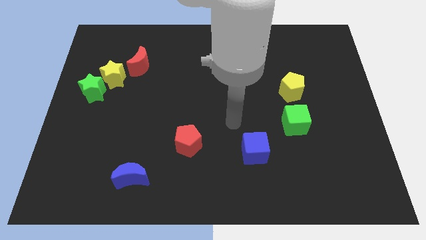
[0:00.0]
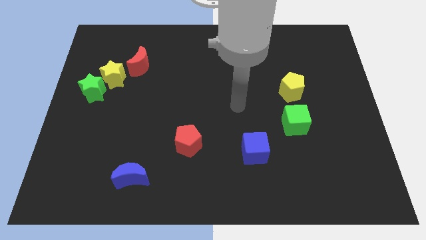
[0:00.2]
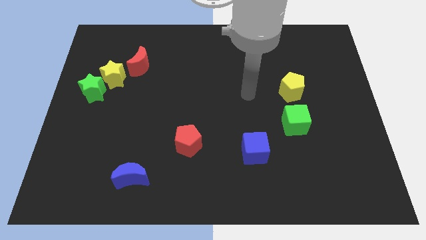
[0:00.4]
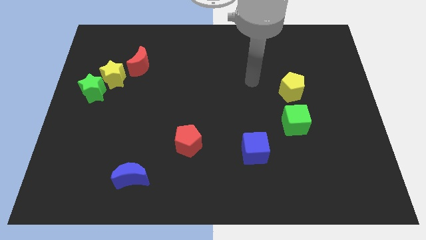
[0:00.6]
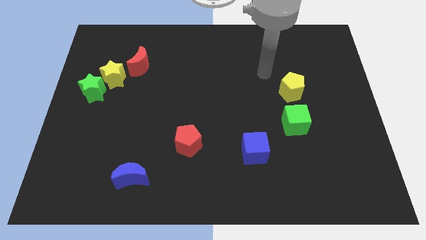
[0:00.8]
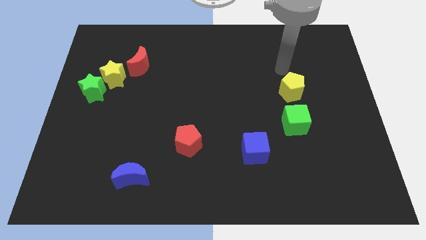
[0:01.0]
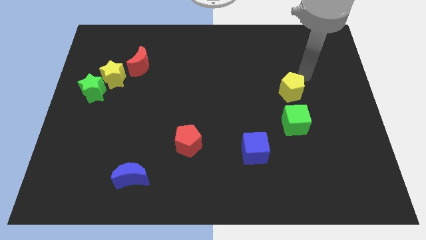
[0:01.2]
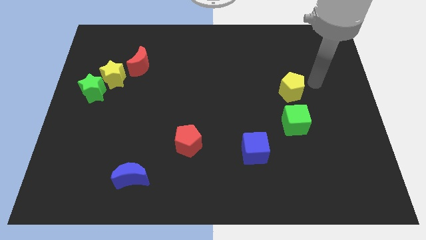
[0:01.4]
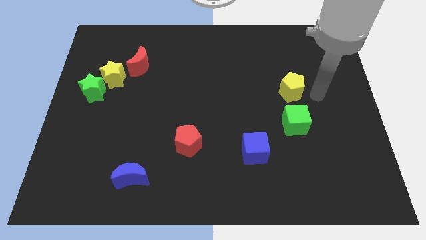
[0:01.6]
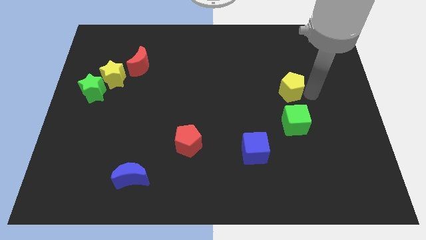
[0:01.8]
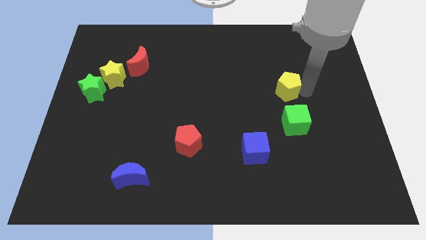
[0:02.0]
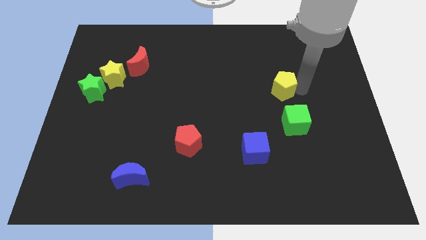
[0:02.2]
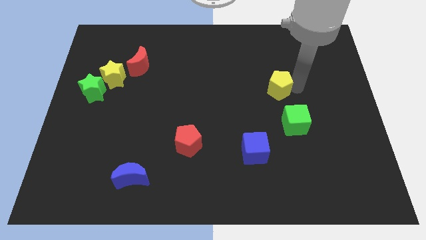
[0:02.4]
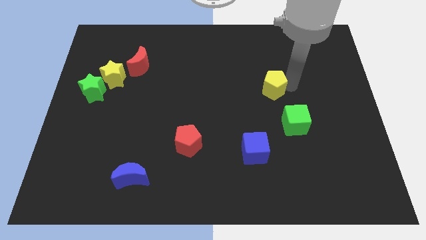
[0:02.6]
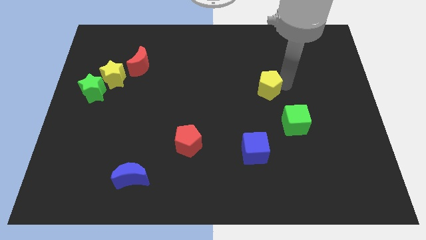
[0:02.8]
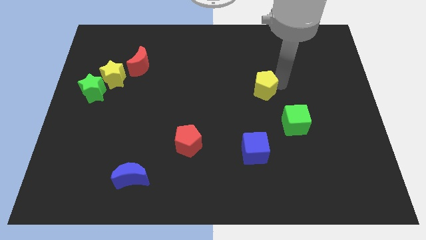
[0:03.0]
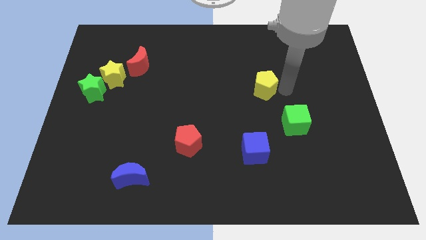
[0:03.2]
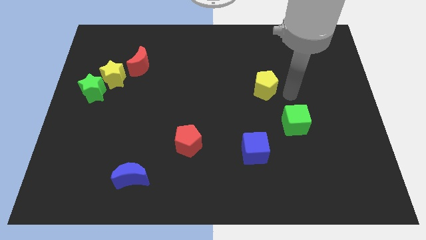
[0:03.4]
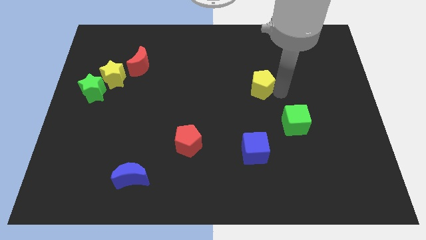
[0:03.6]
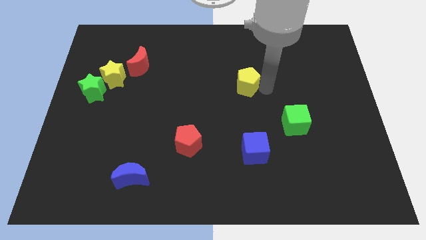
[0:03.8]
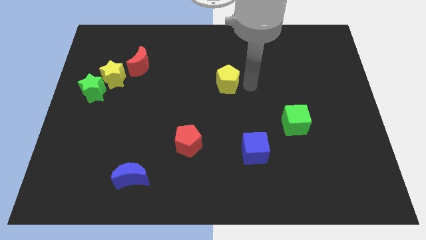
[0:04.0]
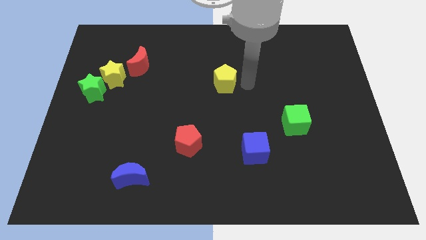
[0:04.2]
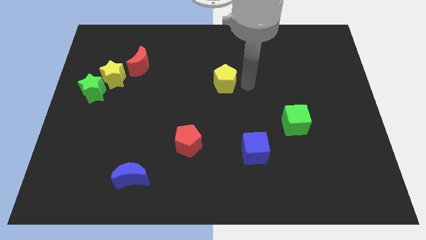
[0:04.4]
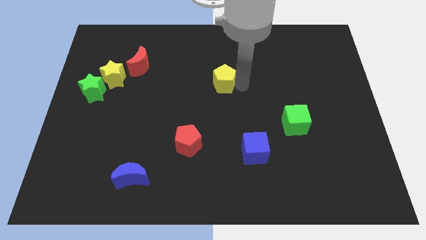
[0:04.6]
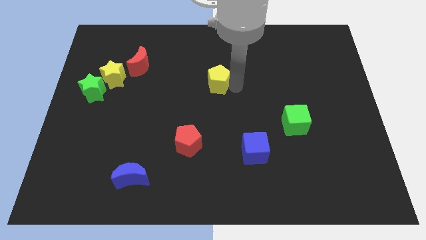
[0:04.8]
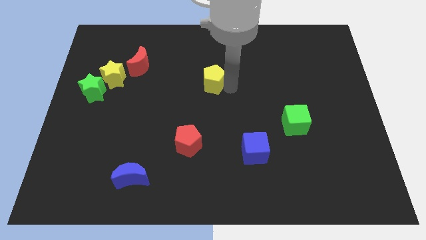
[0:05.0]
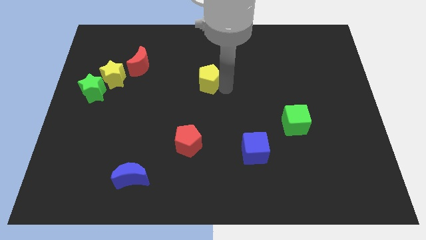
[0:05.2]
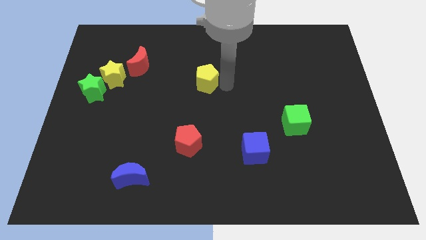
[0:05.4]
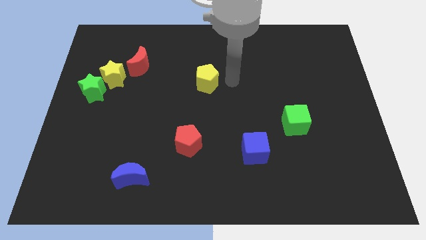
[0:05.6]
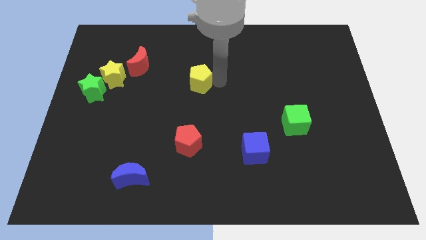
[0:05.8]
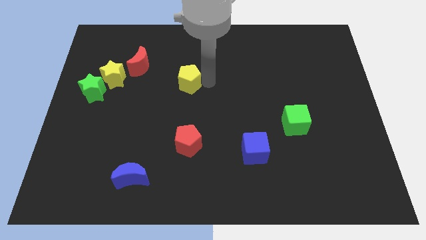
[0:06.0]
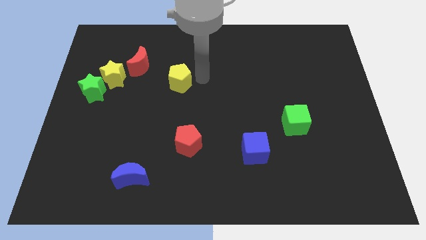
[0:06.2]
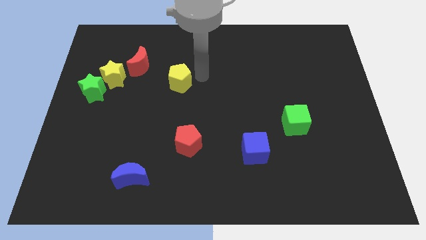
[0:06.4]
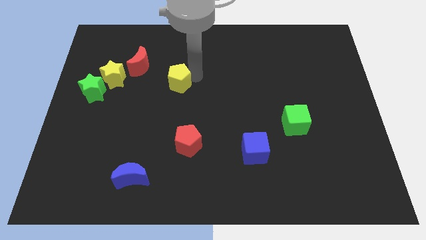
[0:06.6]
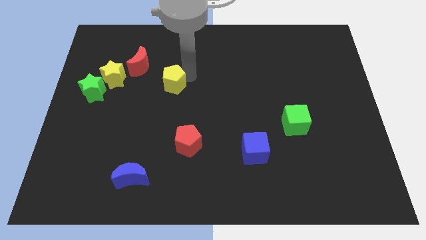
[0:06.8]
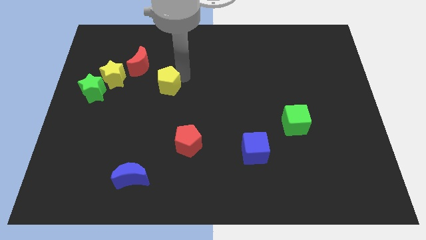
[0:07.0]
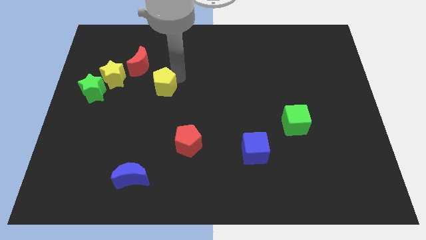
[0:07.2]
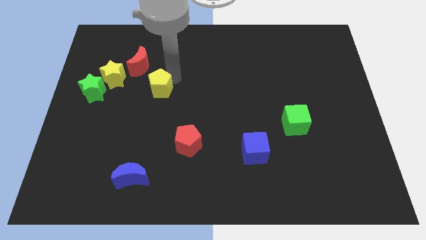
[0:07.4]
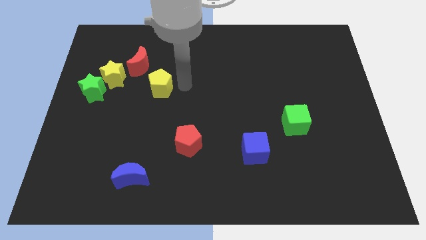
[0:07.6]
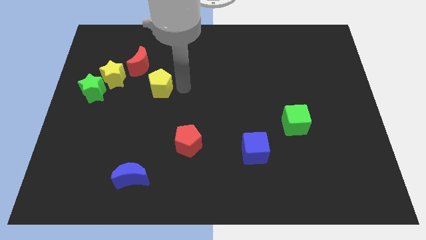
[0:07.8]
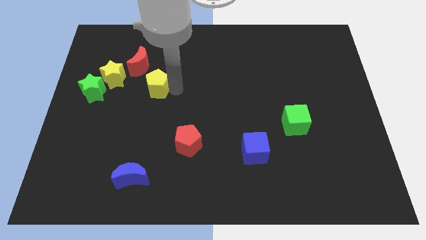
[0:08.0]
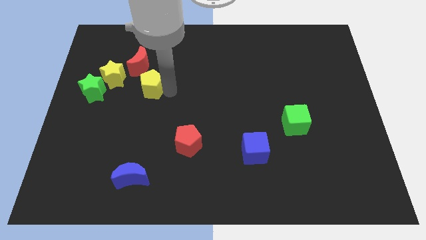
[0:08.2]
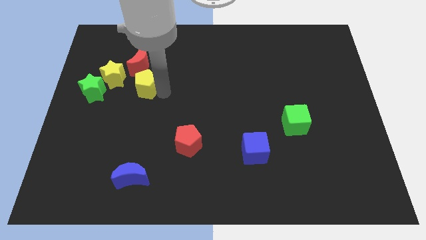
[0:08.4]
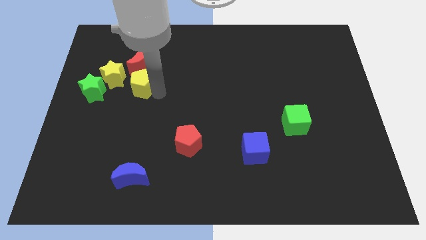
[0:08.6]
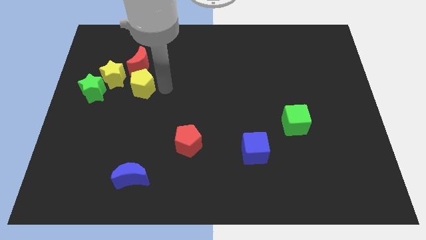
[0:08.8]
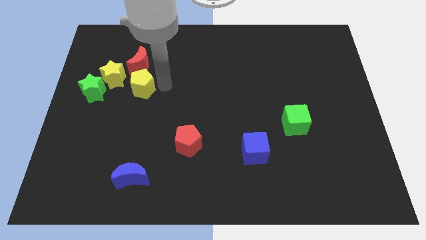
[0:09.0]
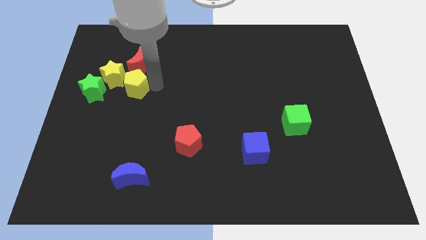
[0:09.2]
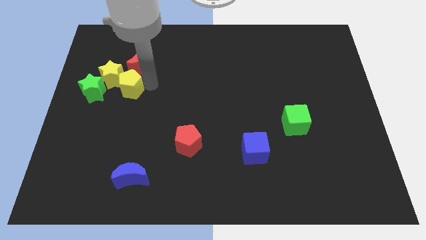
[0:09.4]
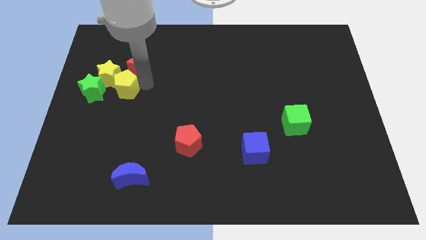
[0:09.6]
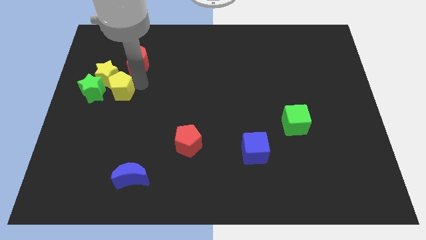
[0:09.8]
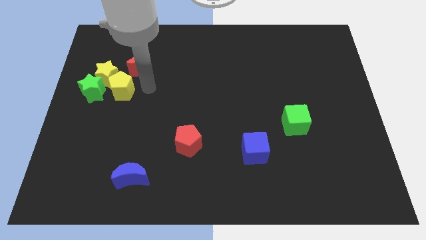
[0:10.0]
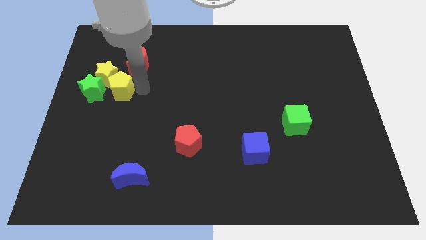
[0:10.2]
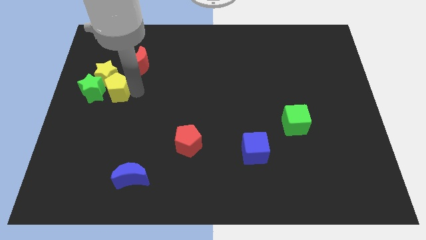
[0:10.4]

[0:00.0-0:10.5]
slide the yellow pentagon towards the green star

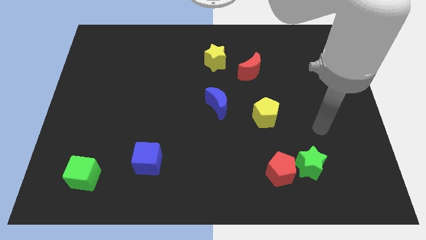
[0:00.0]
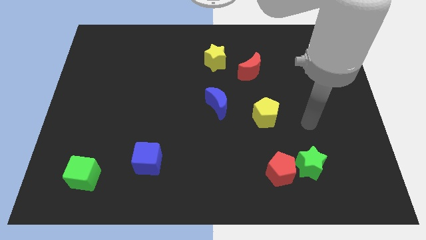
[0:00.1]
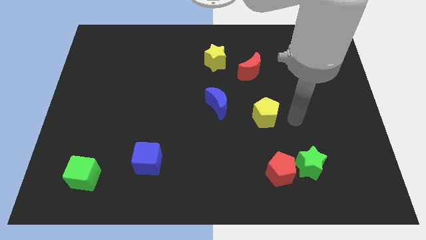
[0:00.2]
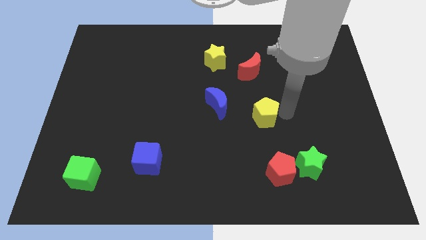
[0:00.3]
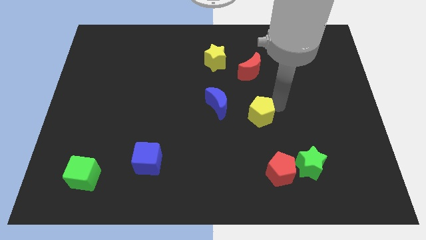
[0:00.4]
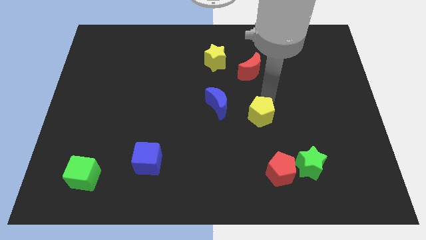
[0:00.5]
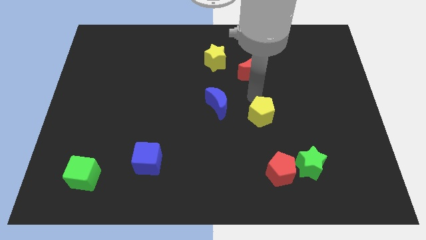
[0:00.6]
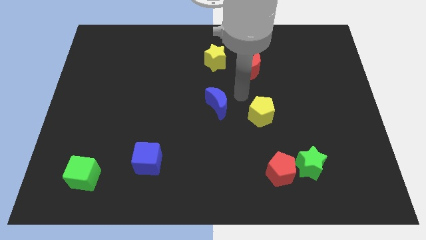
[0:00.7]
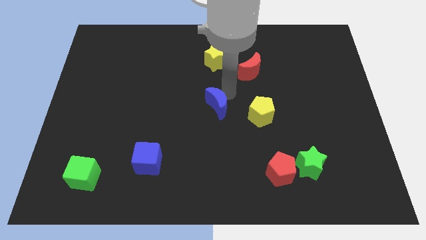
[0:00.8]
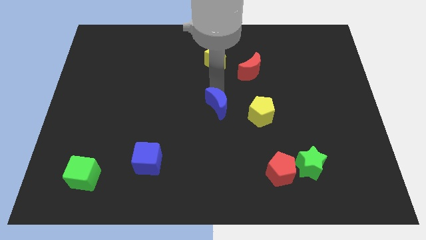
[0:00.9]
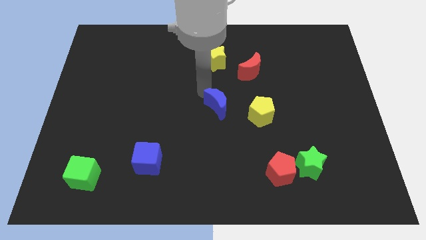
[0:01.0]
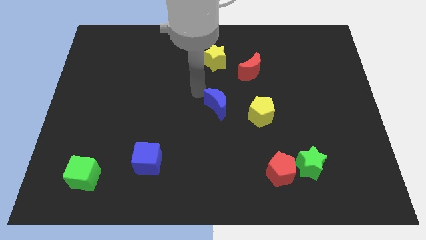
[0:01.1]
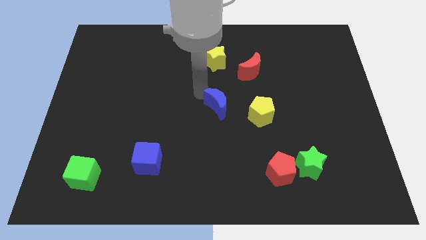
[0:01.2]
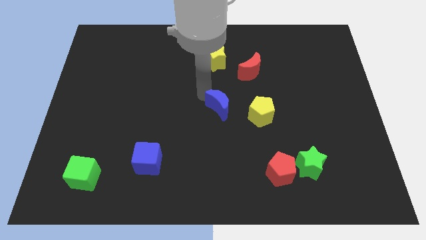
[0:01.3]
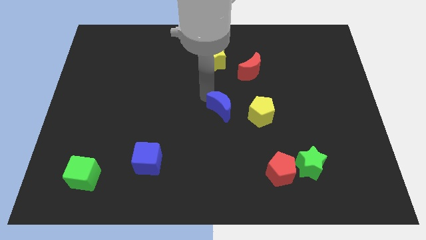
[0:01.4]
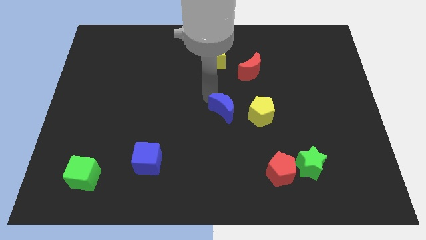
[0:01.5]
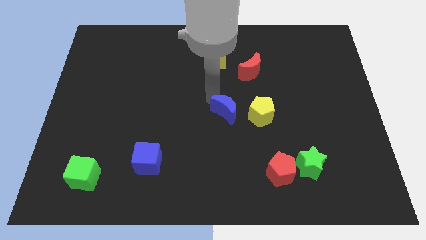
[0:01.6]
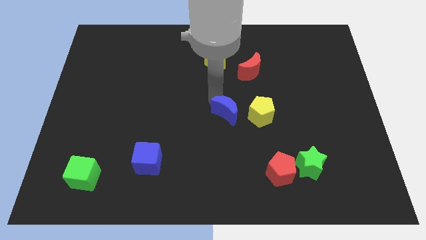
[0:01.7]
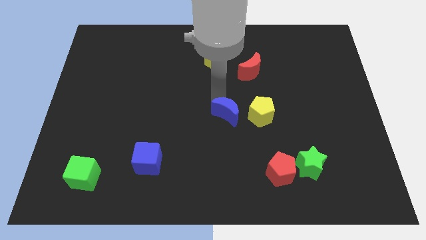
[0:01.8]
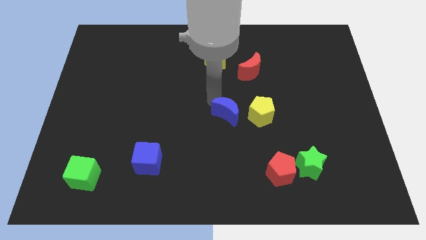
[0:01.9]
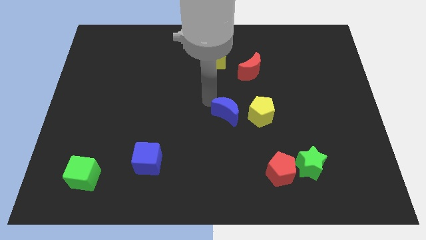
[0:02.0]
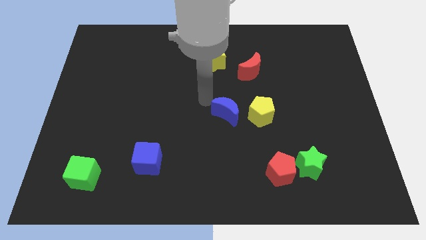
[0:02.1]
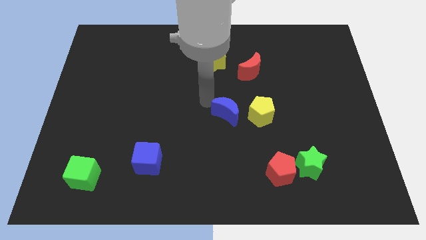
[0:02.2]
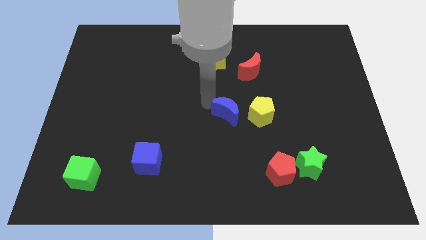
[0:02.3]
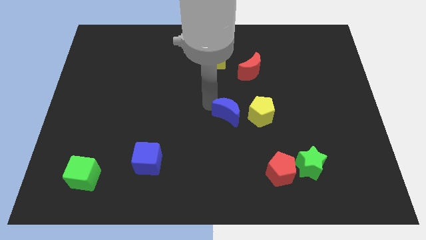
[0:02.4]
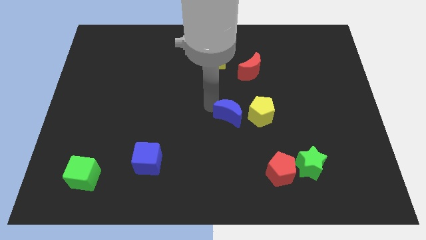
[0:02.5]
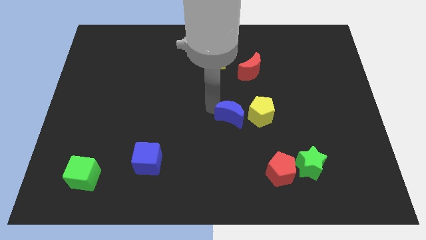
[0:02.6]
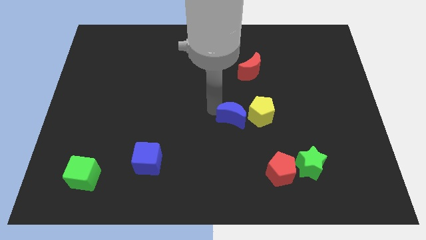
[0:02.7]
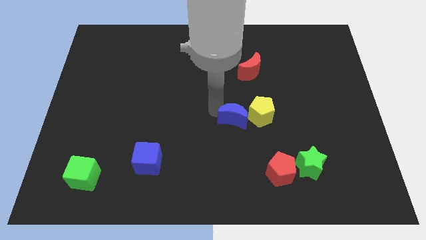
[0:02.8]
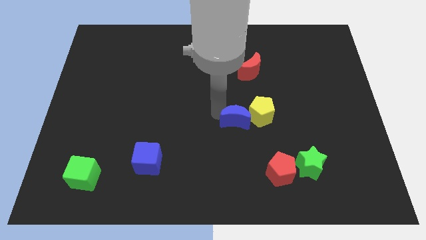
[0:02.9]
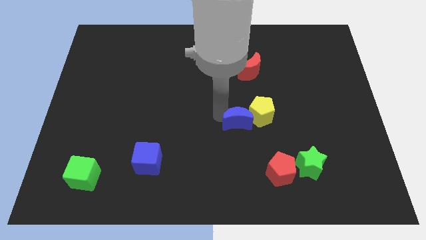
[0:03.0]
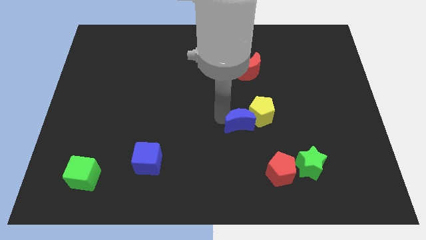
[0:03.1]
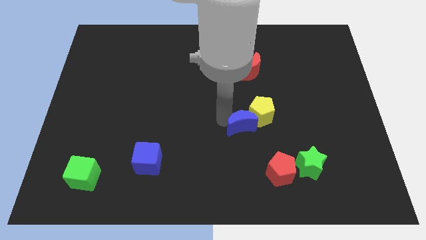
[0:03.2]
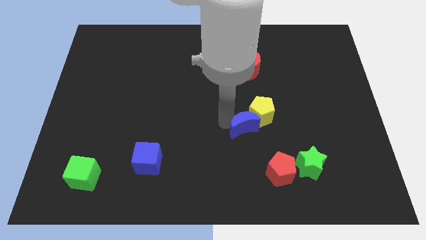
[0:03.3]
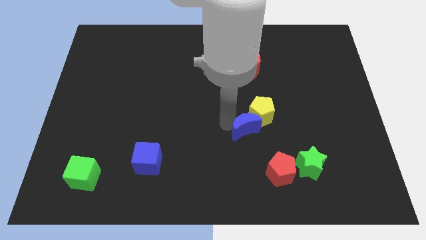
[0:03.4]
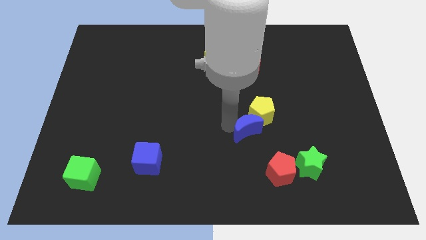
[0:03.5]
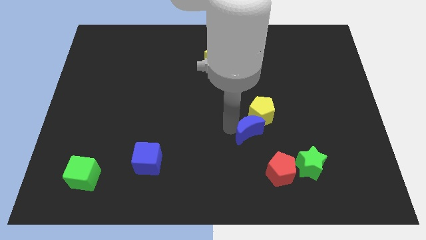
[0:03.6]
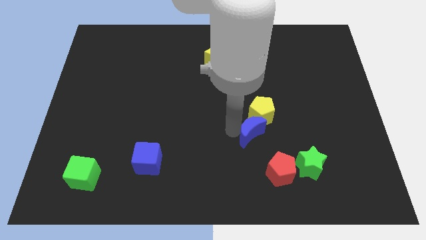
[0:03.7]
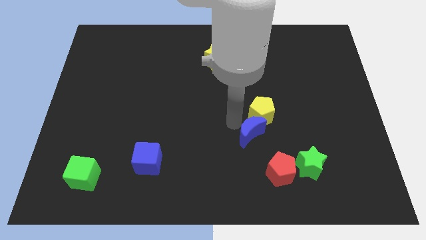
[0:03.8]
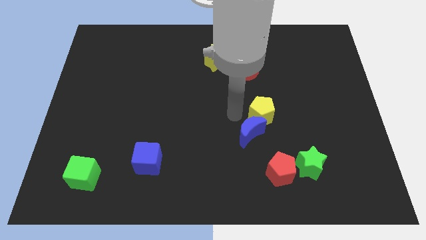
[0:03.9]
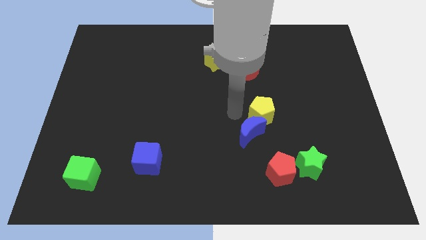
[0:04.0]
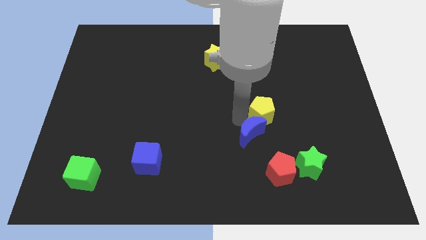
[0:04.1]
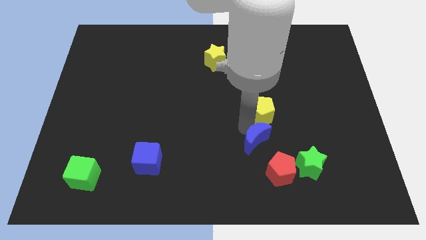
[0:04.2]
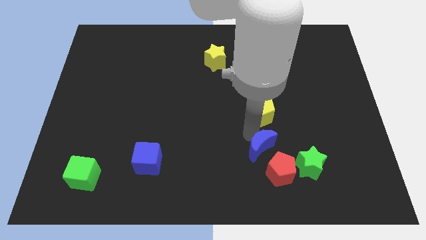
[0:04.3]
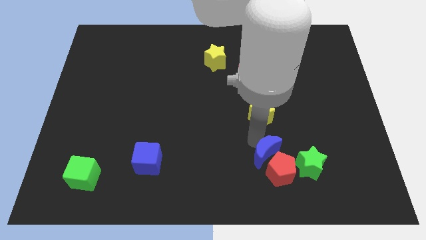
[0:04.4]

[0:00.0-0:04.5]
push the blue moon next to the red pentagon
